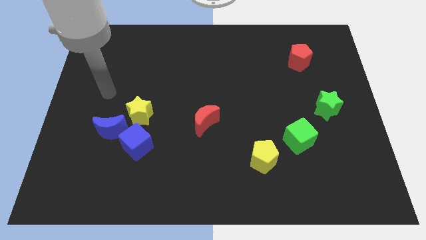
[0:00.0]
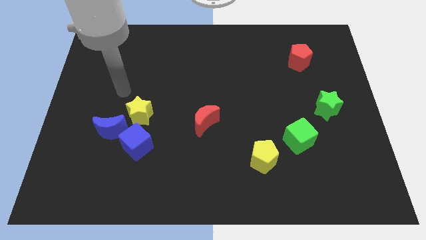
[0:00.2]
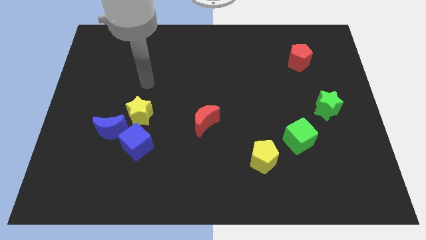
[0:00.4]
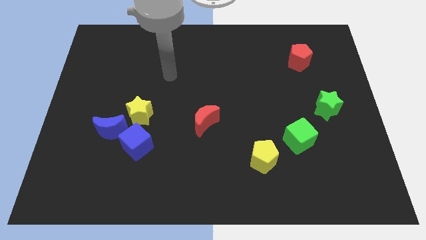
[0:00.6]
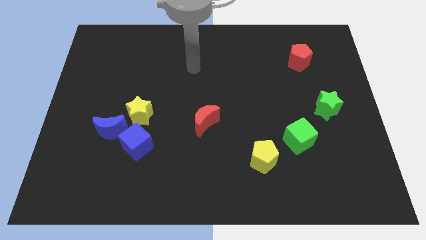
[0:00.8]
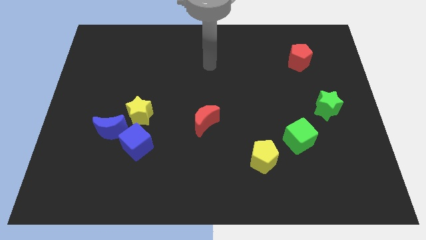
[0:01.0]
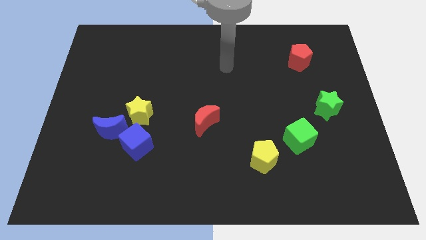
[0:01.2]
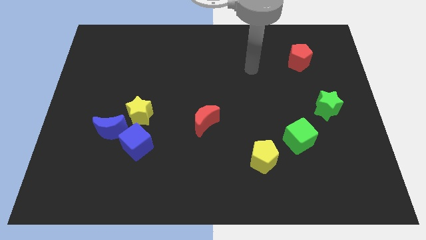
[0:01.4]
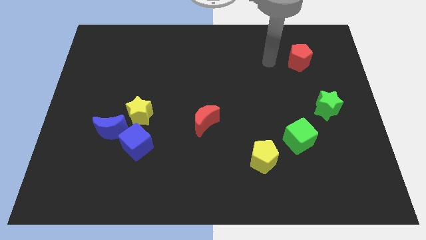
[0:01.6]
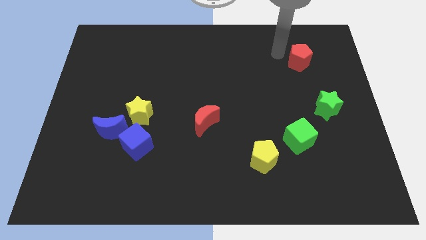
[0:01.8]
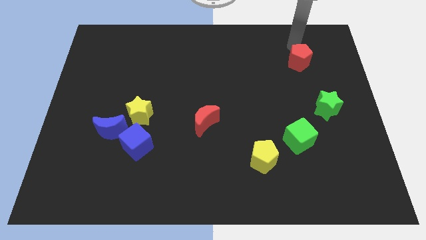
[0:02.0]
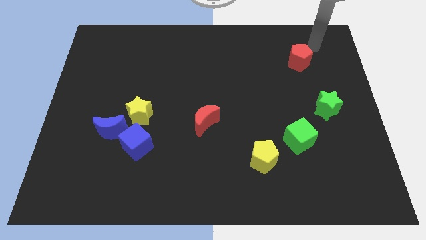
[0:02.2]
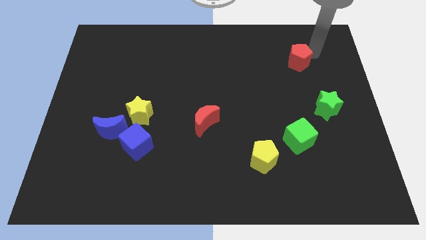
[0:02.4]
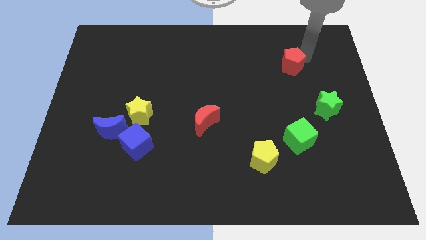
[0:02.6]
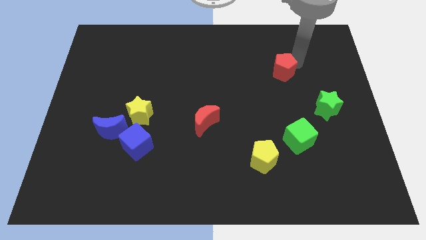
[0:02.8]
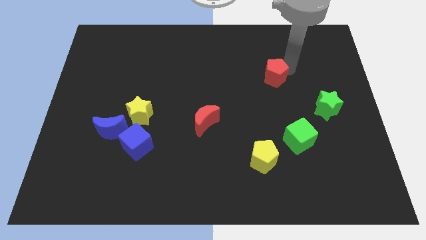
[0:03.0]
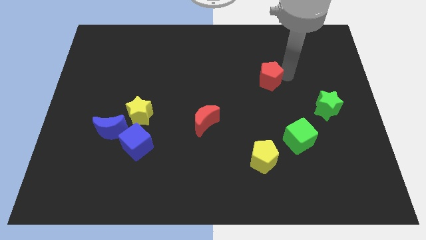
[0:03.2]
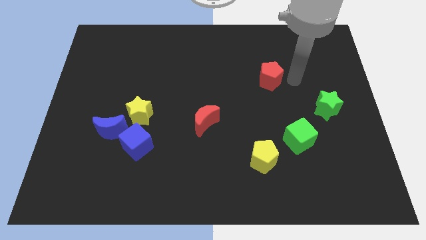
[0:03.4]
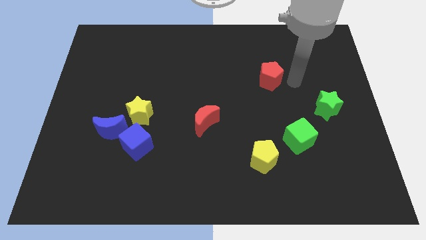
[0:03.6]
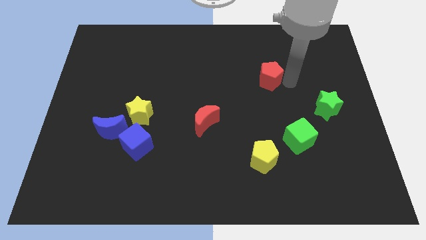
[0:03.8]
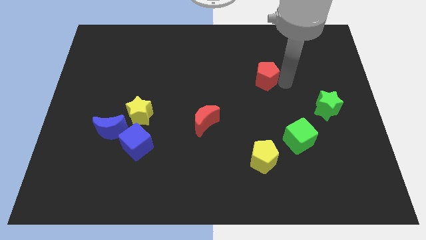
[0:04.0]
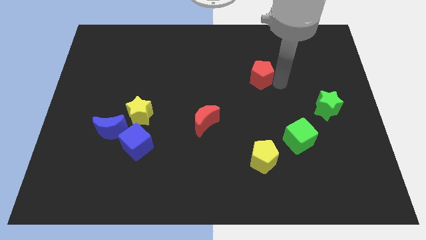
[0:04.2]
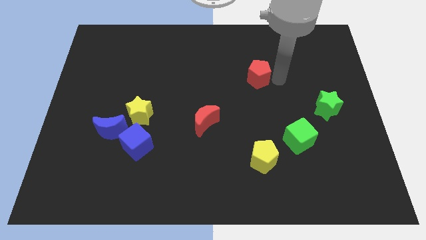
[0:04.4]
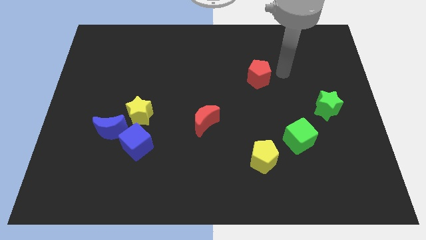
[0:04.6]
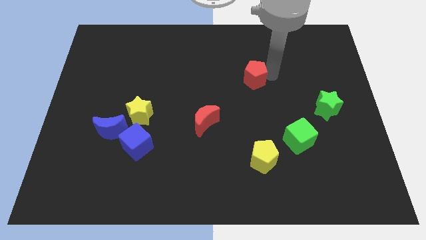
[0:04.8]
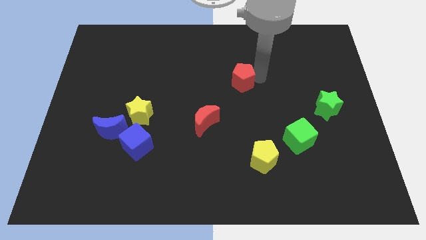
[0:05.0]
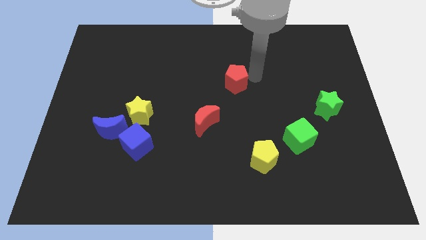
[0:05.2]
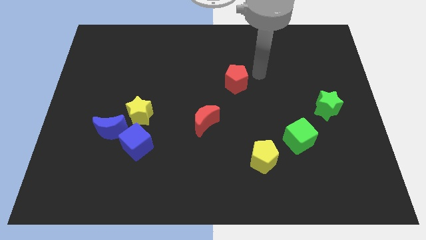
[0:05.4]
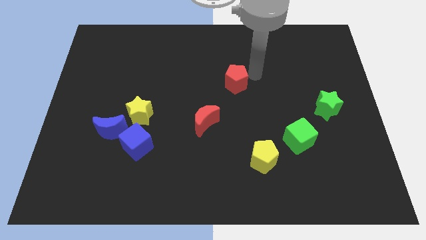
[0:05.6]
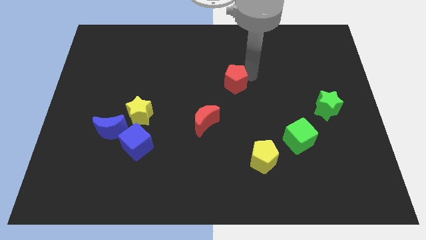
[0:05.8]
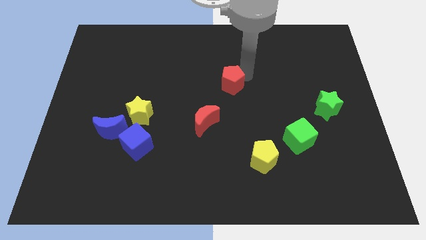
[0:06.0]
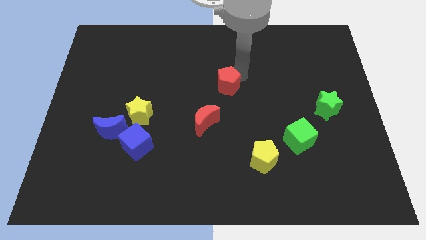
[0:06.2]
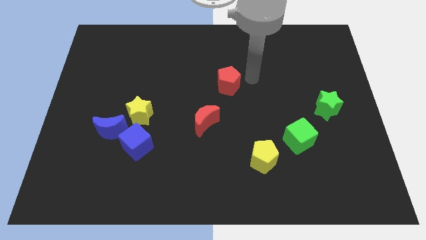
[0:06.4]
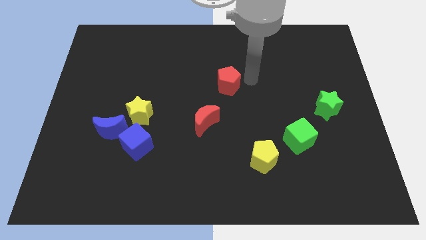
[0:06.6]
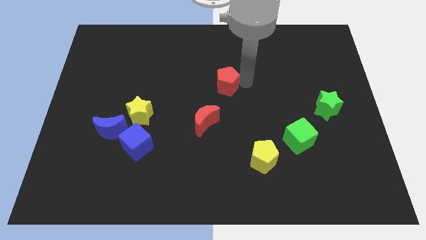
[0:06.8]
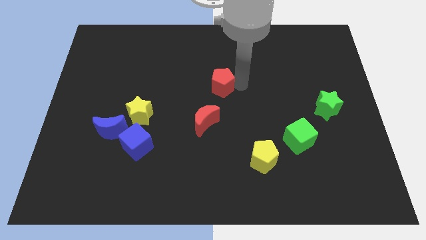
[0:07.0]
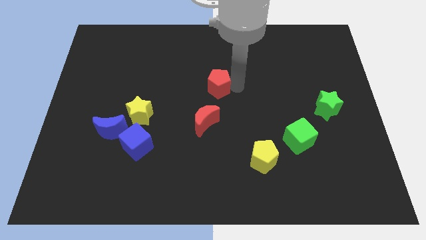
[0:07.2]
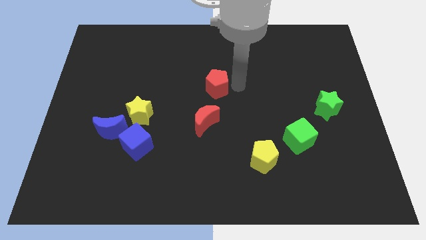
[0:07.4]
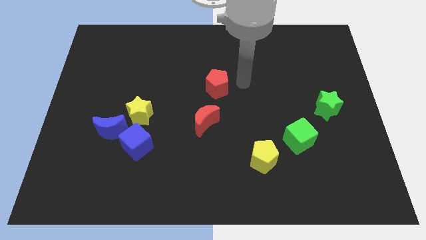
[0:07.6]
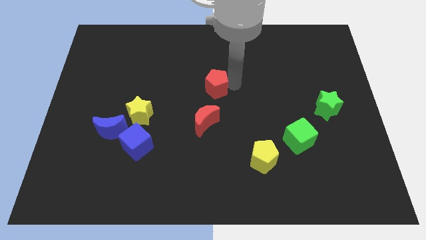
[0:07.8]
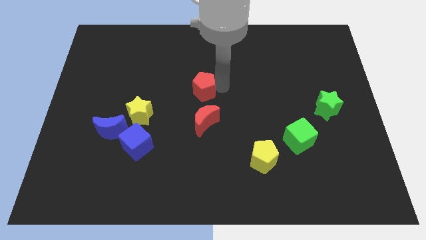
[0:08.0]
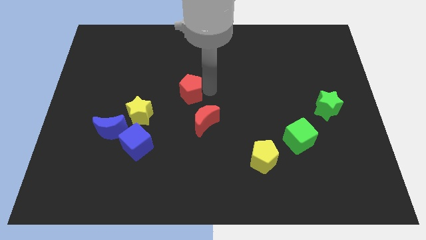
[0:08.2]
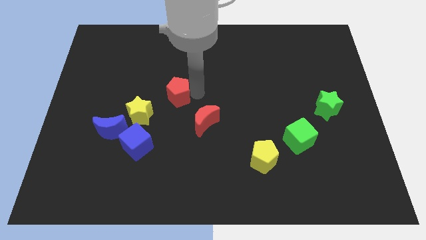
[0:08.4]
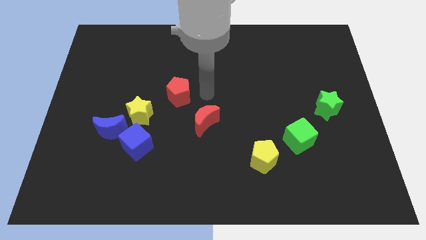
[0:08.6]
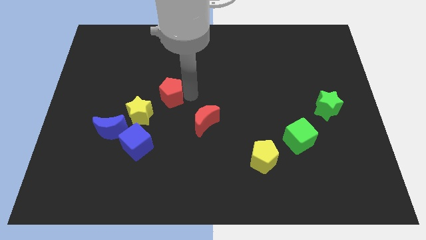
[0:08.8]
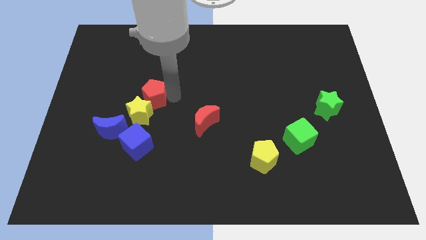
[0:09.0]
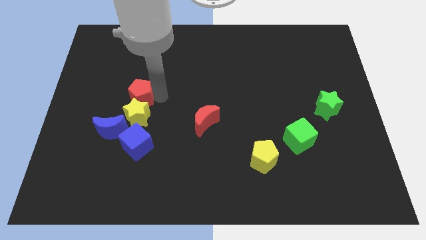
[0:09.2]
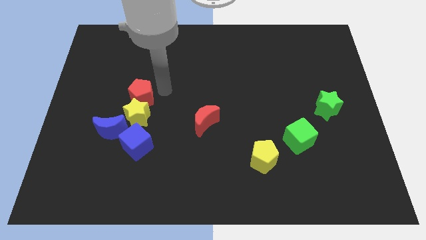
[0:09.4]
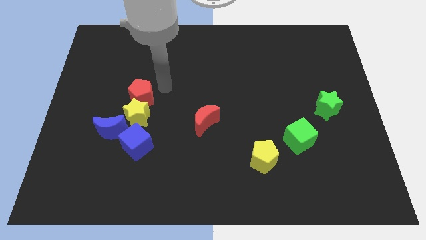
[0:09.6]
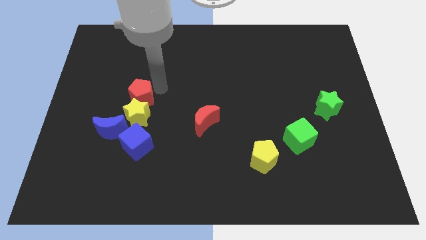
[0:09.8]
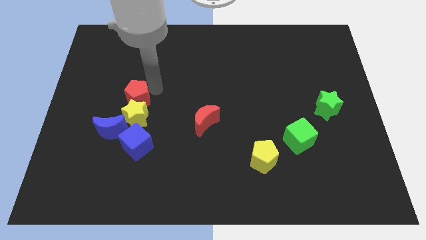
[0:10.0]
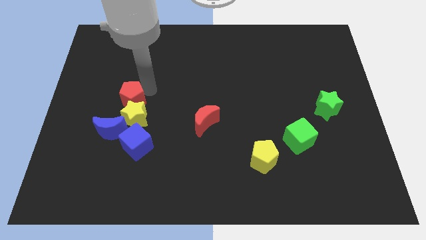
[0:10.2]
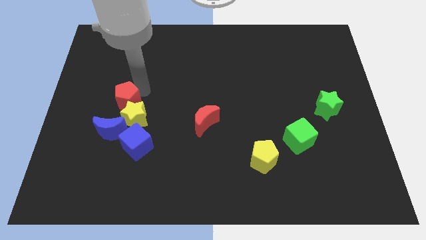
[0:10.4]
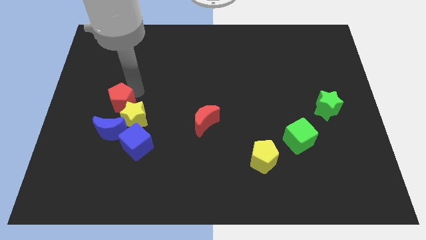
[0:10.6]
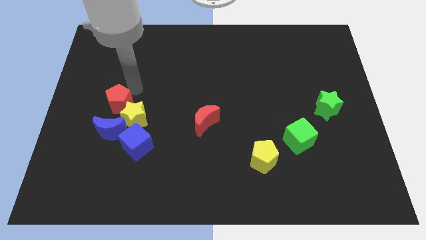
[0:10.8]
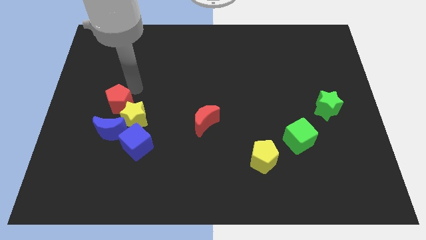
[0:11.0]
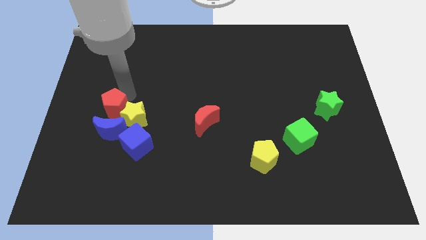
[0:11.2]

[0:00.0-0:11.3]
push the red pentagon to the top left of the blue cube

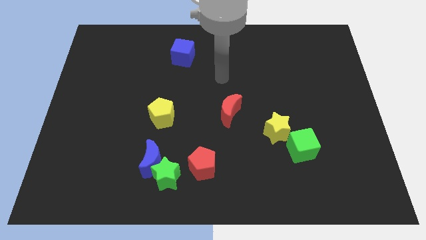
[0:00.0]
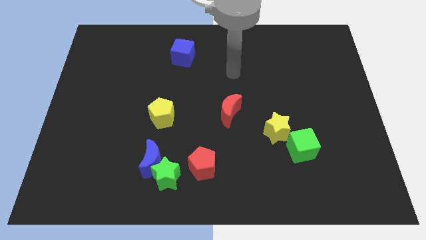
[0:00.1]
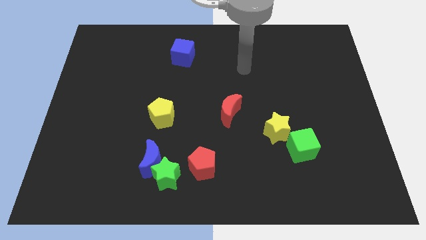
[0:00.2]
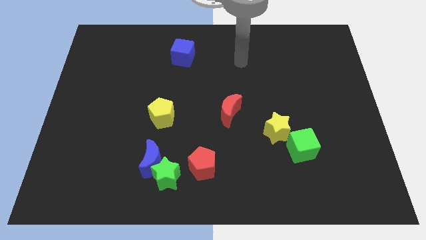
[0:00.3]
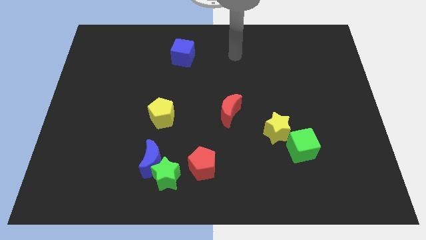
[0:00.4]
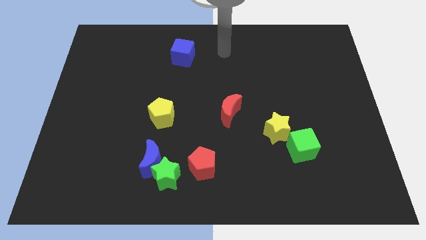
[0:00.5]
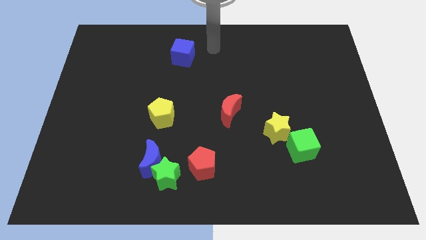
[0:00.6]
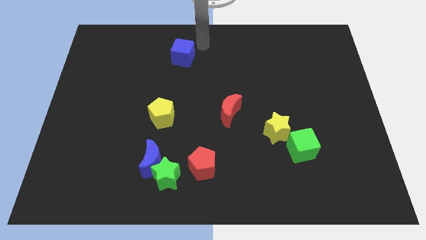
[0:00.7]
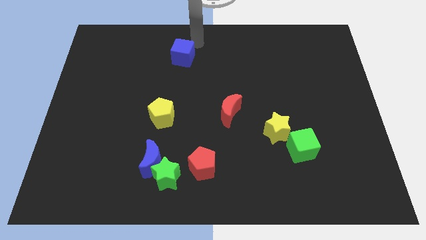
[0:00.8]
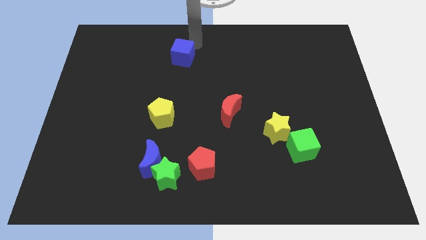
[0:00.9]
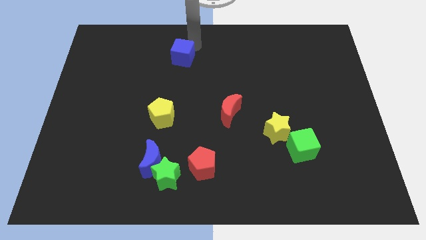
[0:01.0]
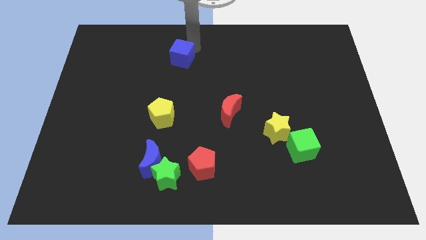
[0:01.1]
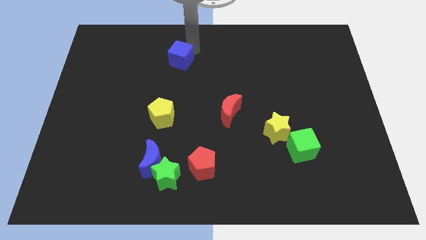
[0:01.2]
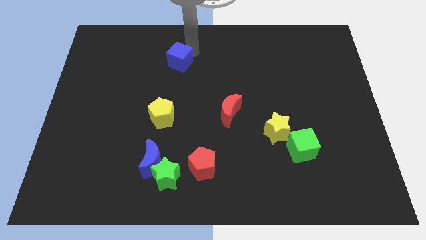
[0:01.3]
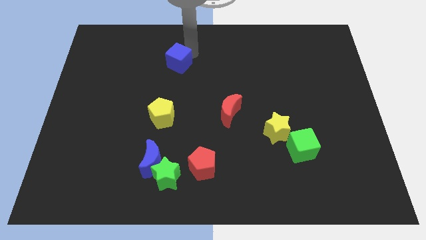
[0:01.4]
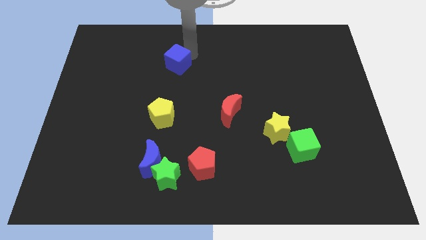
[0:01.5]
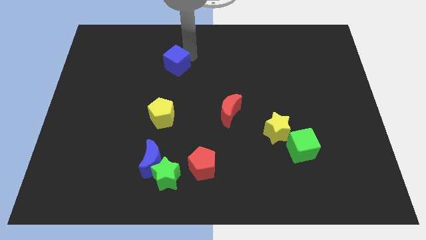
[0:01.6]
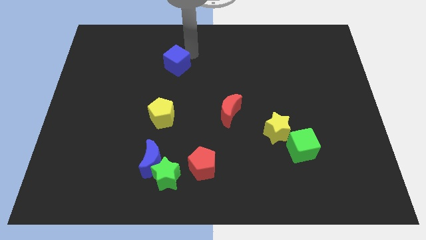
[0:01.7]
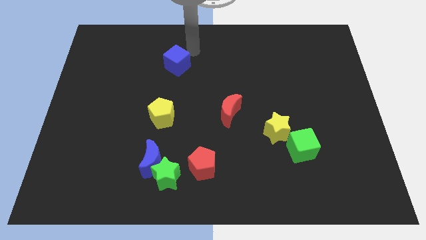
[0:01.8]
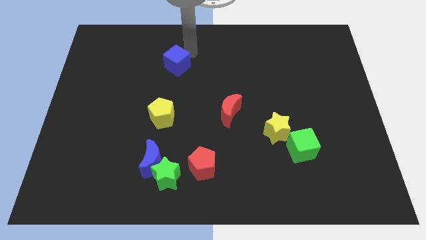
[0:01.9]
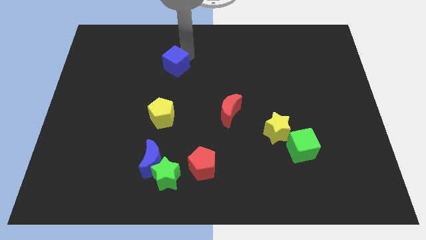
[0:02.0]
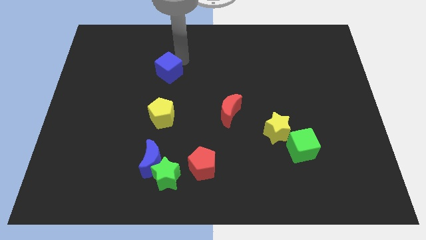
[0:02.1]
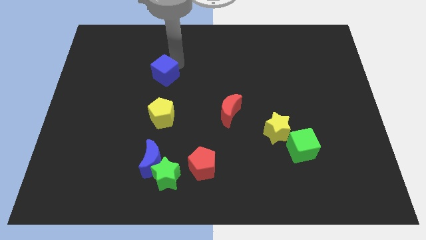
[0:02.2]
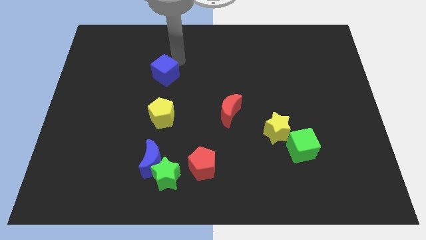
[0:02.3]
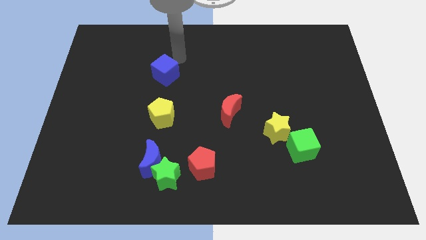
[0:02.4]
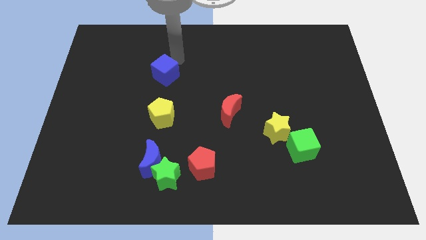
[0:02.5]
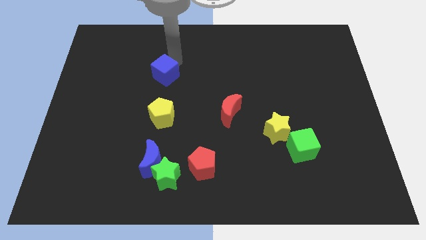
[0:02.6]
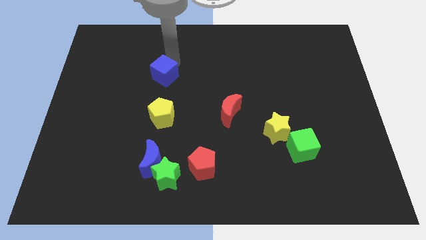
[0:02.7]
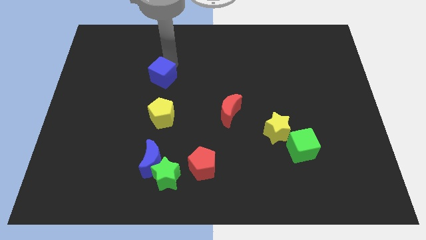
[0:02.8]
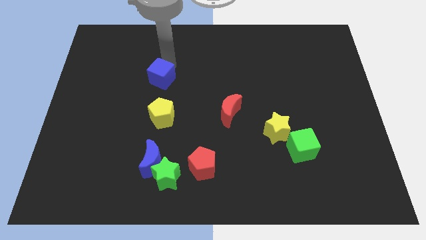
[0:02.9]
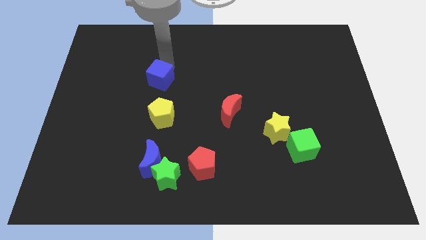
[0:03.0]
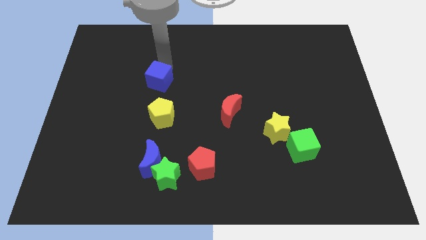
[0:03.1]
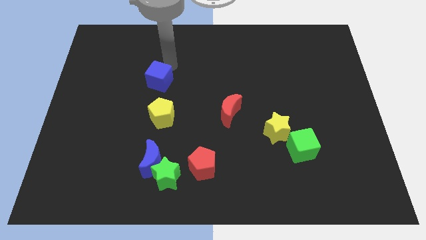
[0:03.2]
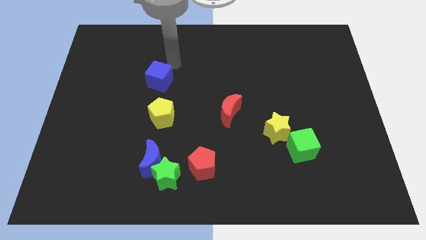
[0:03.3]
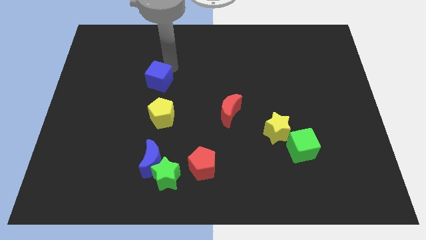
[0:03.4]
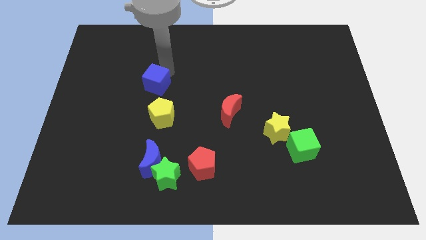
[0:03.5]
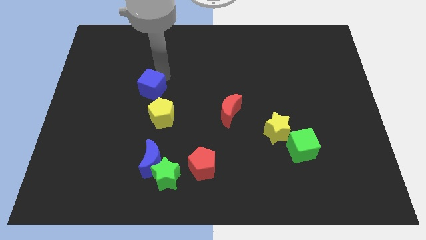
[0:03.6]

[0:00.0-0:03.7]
slide the blue cube to the top left side of the yellow pentagon
